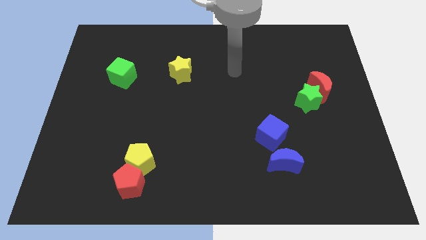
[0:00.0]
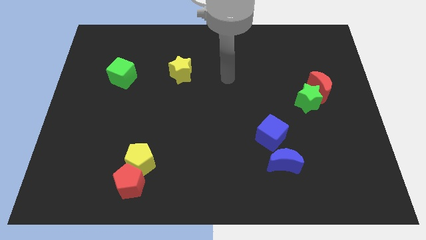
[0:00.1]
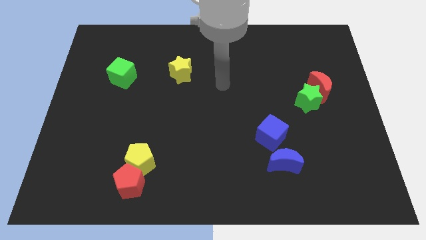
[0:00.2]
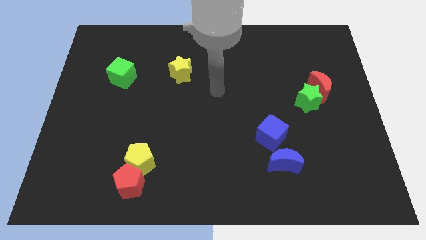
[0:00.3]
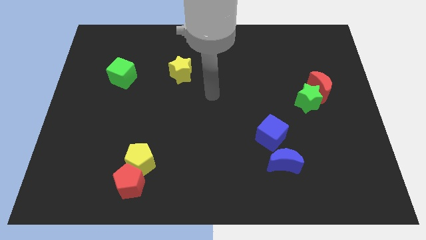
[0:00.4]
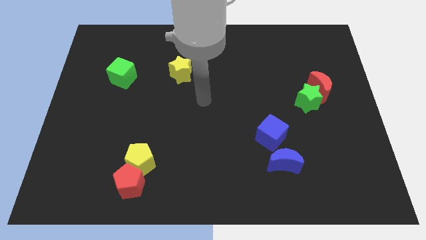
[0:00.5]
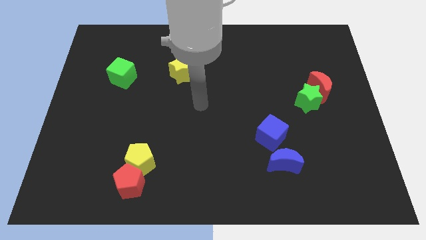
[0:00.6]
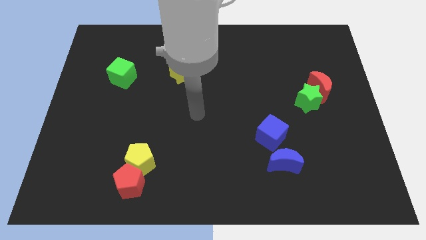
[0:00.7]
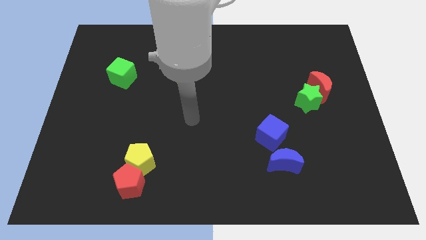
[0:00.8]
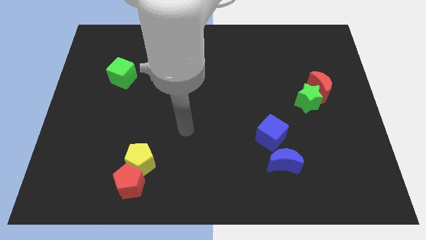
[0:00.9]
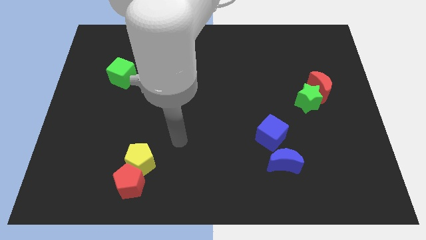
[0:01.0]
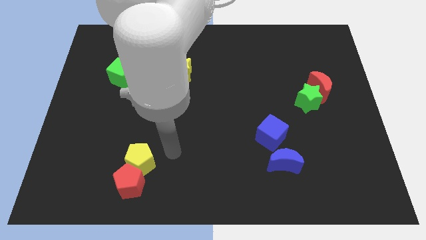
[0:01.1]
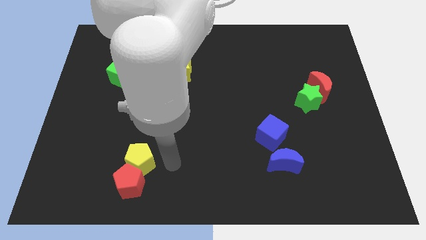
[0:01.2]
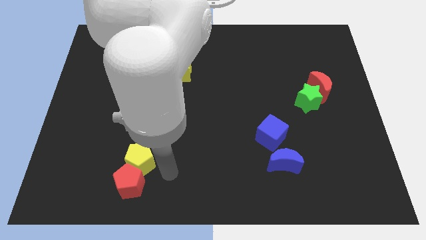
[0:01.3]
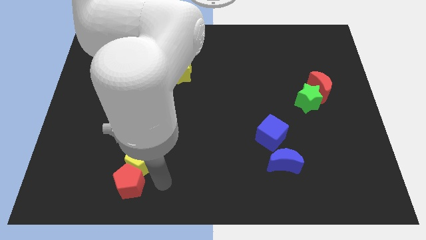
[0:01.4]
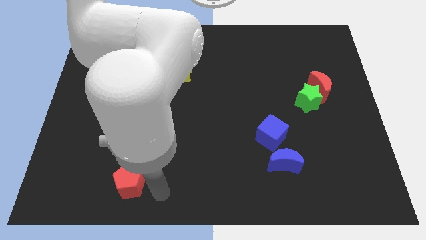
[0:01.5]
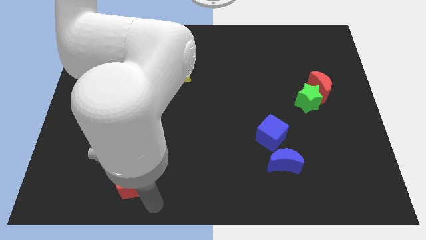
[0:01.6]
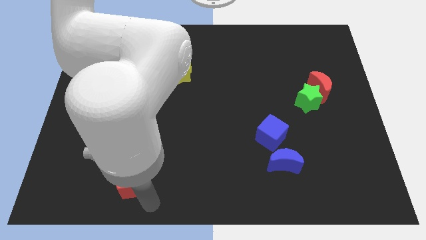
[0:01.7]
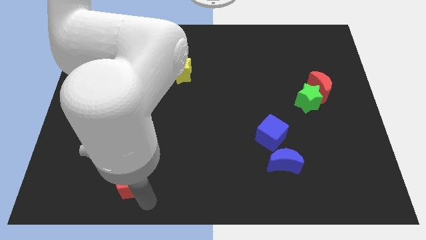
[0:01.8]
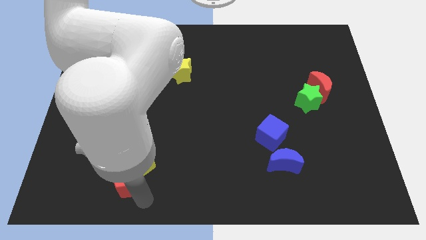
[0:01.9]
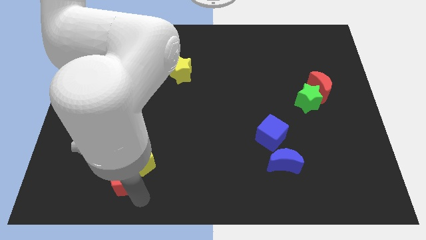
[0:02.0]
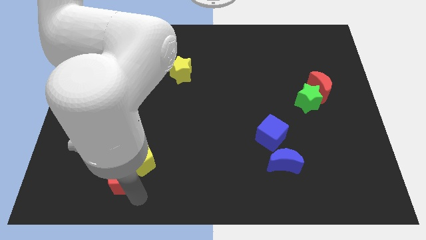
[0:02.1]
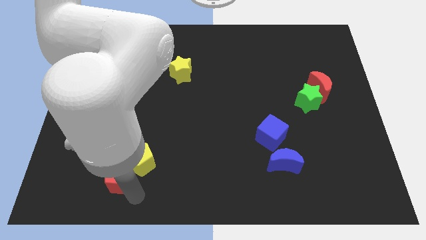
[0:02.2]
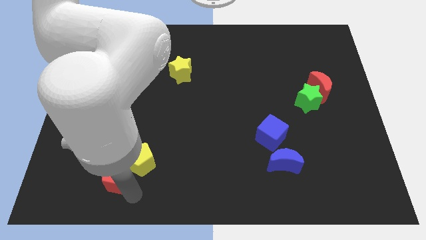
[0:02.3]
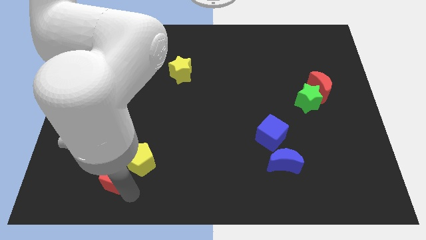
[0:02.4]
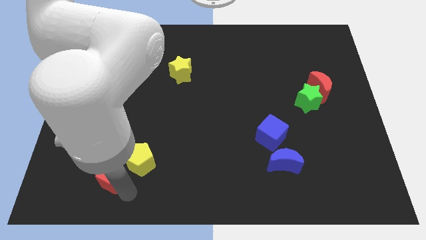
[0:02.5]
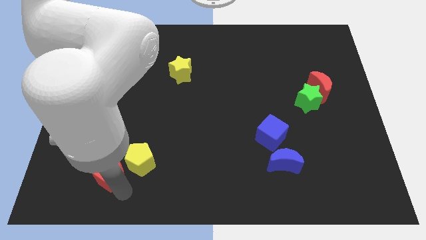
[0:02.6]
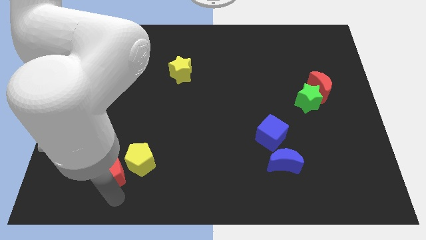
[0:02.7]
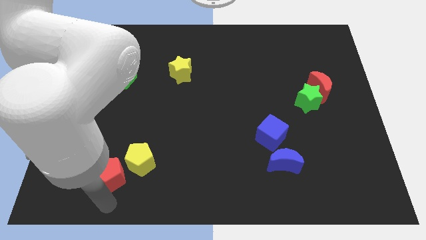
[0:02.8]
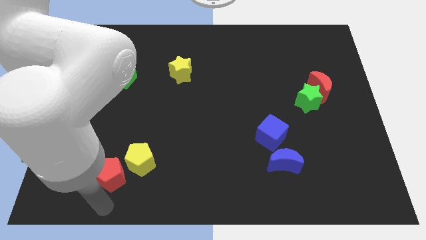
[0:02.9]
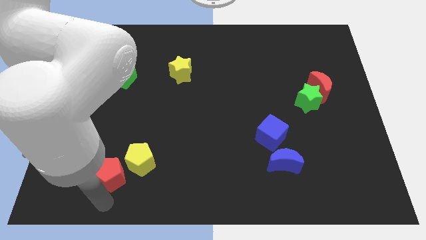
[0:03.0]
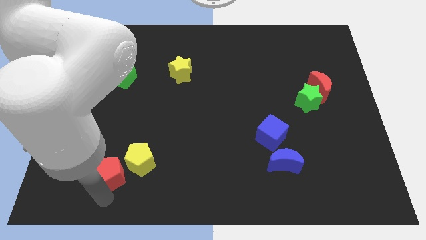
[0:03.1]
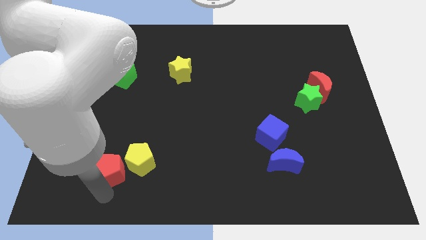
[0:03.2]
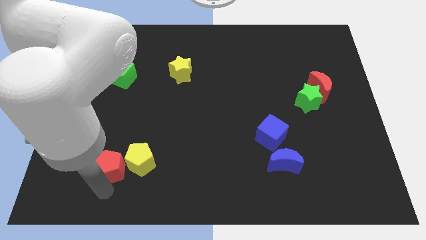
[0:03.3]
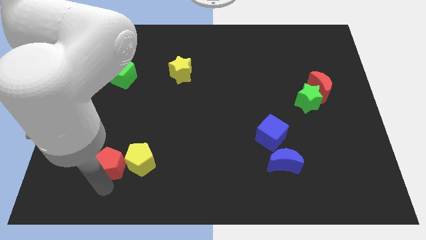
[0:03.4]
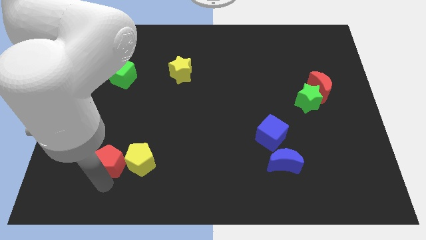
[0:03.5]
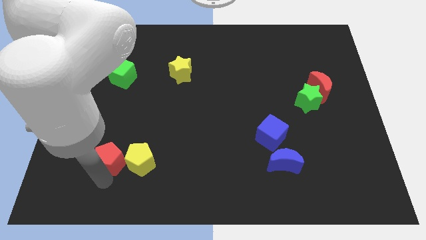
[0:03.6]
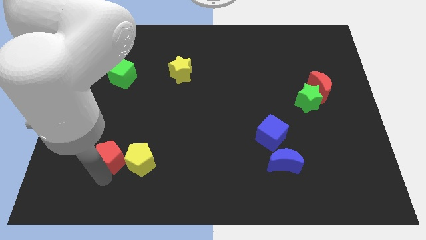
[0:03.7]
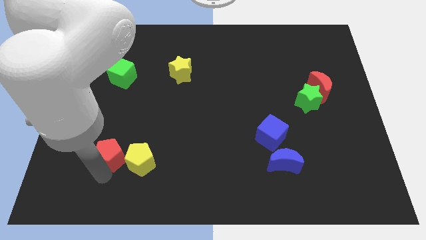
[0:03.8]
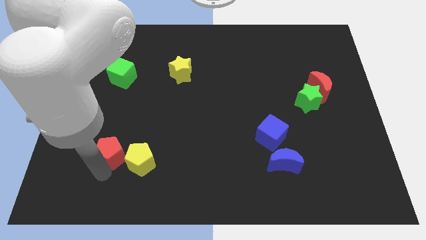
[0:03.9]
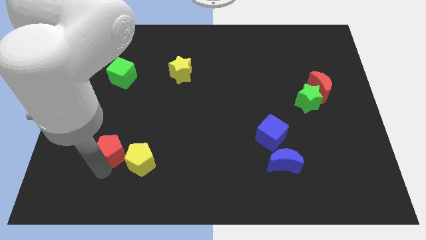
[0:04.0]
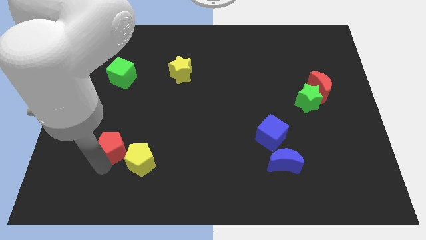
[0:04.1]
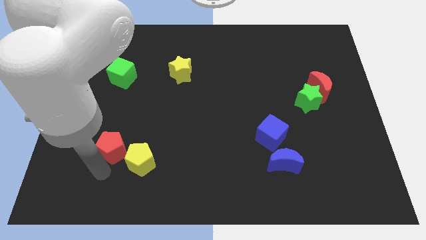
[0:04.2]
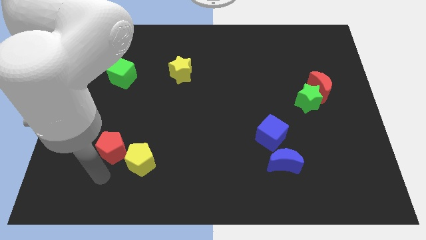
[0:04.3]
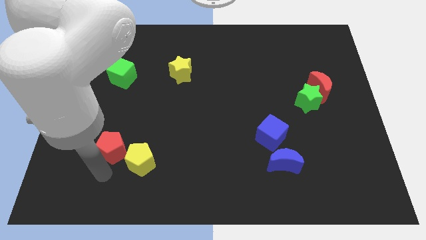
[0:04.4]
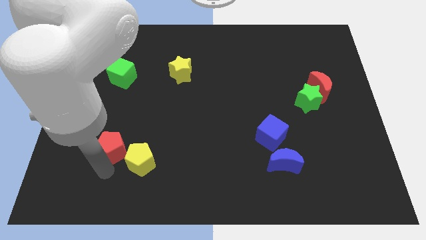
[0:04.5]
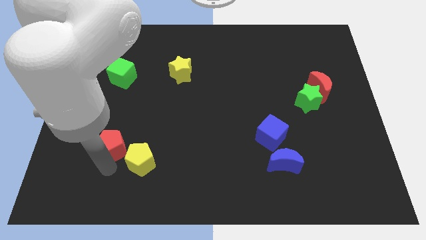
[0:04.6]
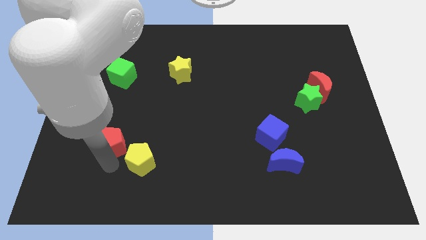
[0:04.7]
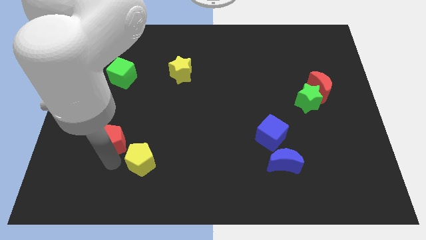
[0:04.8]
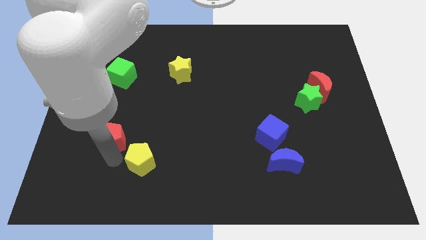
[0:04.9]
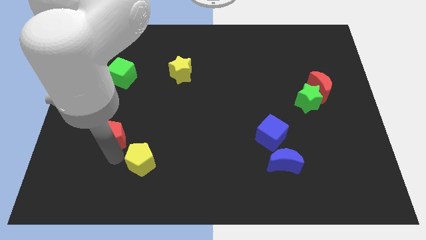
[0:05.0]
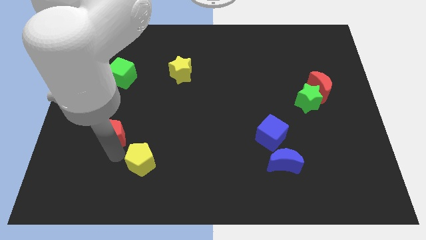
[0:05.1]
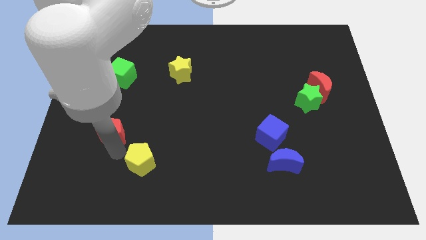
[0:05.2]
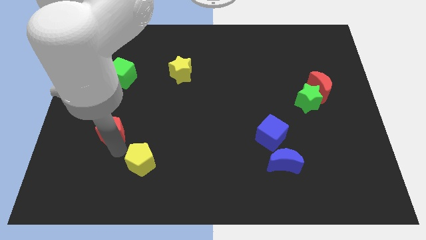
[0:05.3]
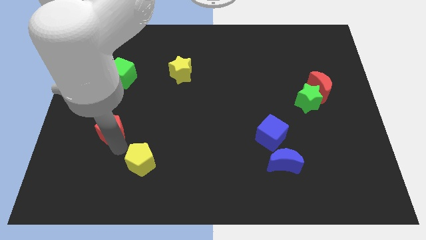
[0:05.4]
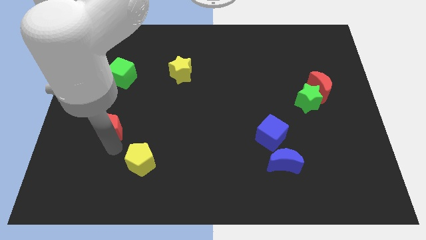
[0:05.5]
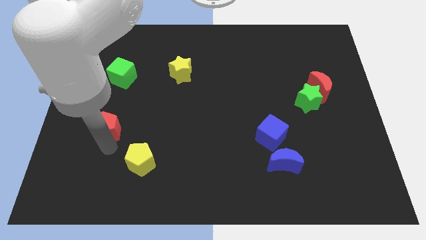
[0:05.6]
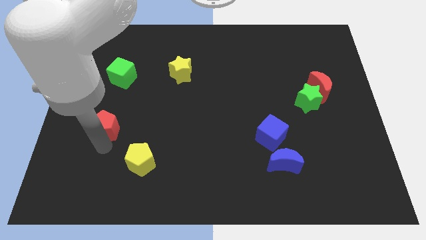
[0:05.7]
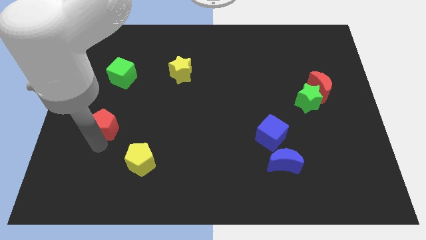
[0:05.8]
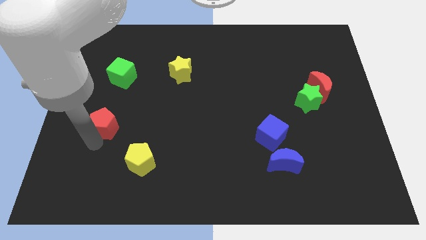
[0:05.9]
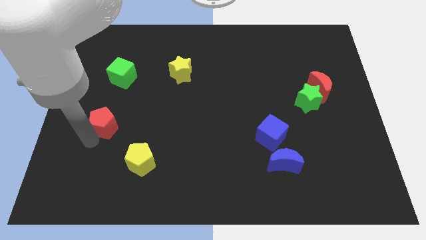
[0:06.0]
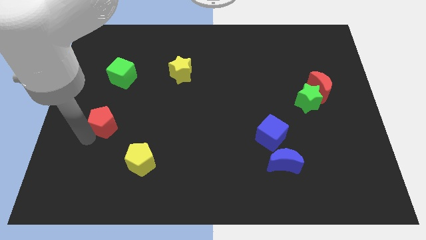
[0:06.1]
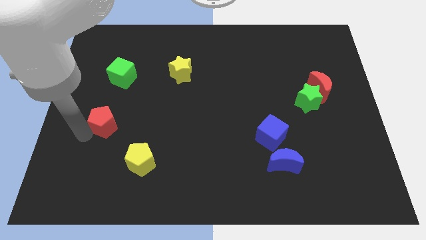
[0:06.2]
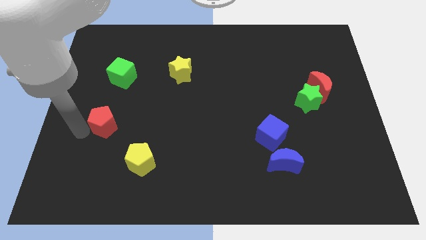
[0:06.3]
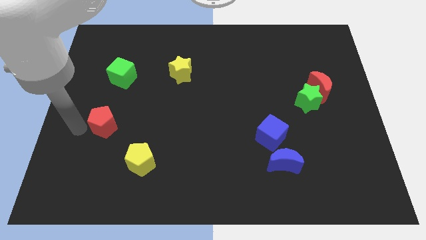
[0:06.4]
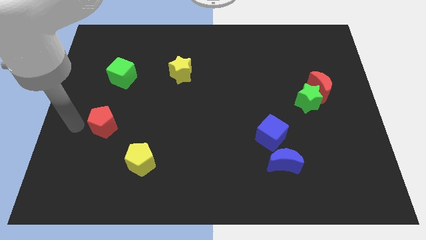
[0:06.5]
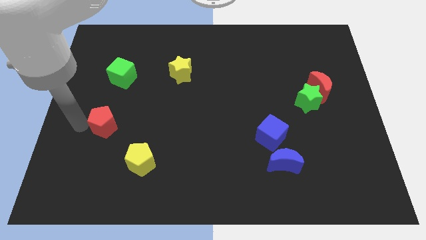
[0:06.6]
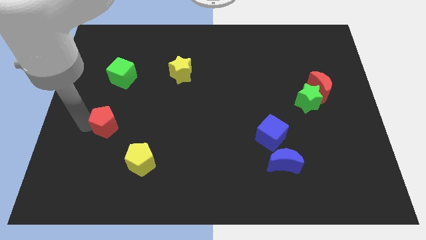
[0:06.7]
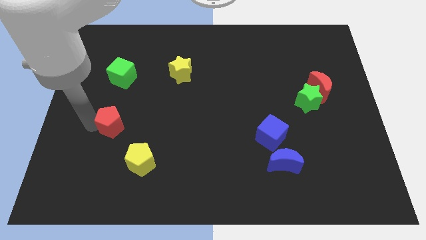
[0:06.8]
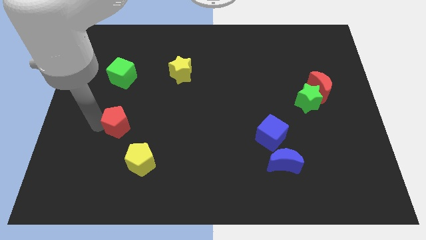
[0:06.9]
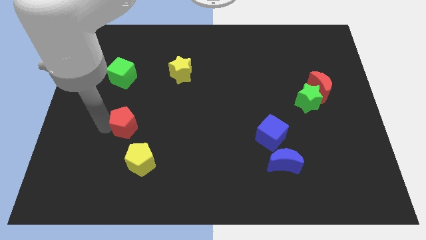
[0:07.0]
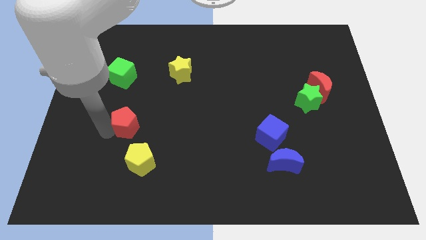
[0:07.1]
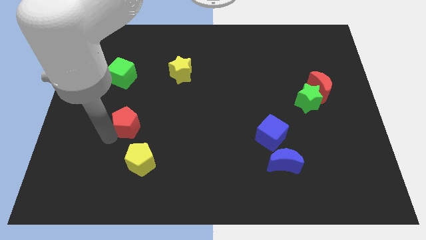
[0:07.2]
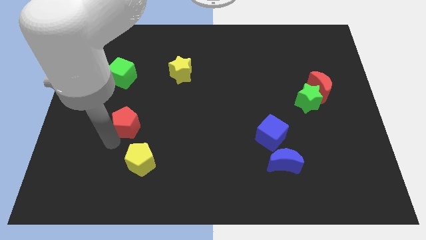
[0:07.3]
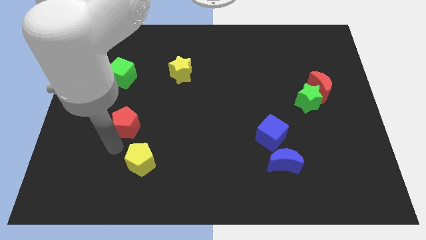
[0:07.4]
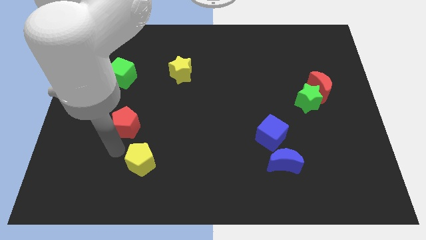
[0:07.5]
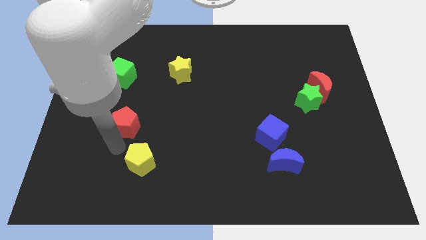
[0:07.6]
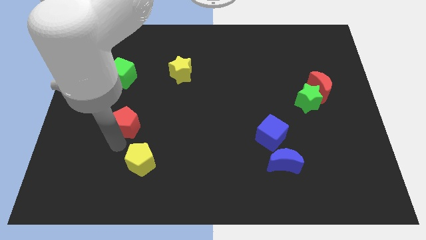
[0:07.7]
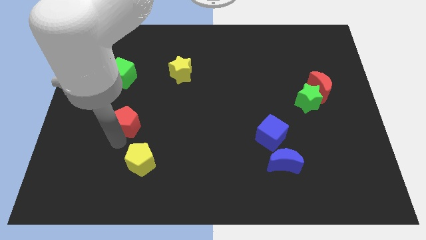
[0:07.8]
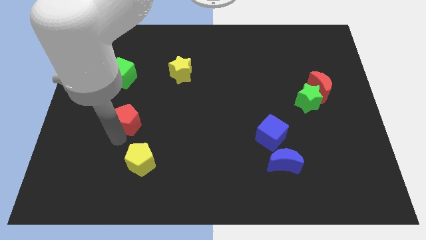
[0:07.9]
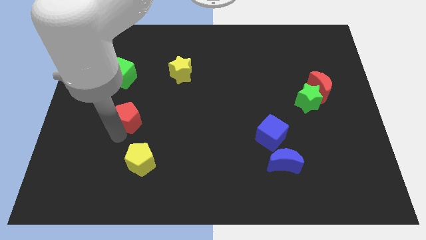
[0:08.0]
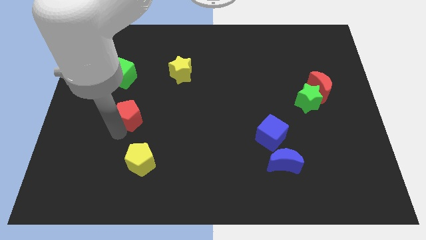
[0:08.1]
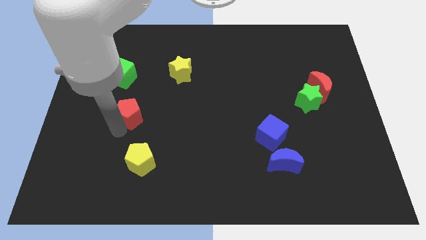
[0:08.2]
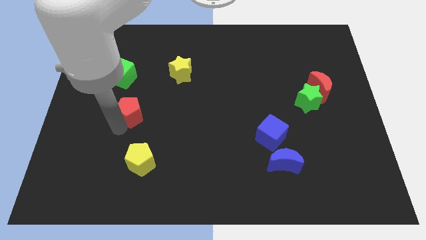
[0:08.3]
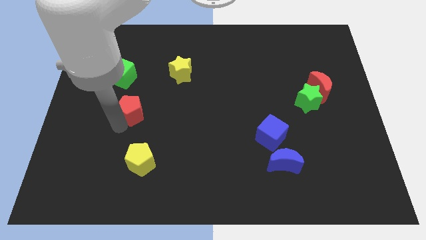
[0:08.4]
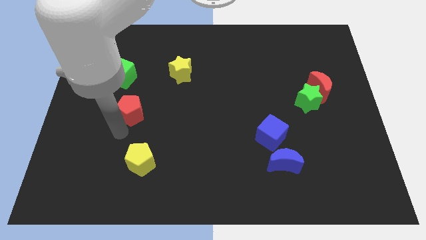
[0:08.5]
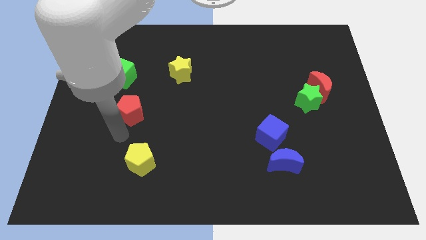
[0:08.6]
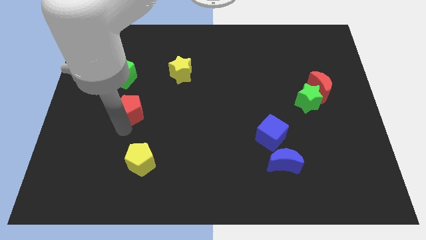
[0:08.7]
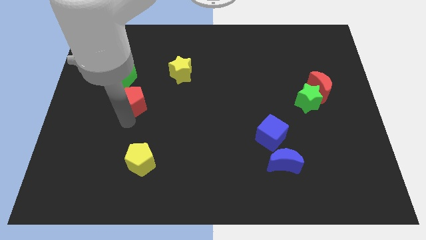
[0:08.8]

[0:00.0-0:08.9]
move the red pentagon upwards
